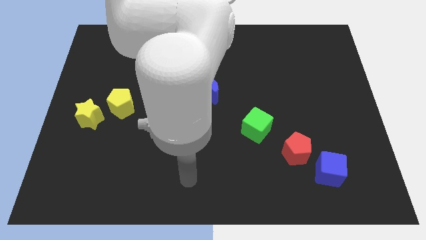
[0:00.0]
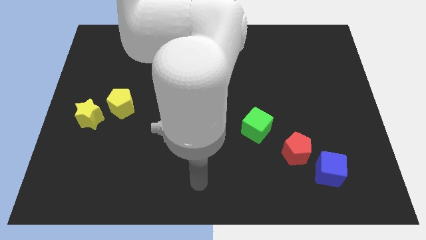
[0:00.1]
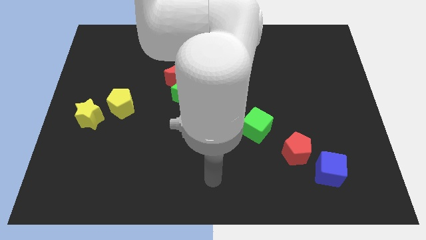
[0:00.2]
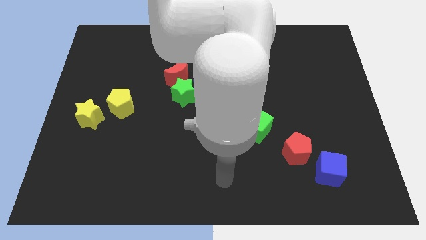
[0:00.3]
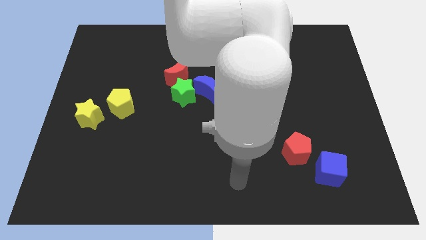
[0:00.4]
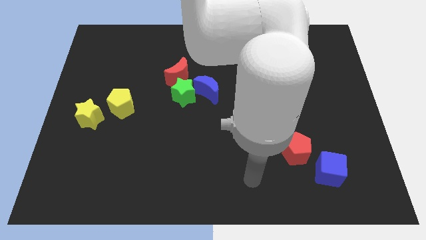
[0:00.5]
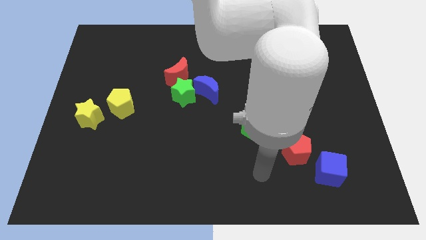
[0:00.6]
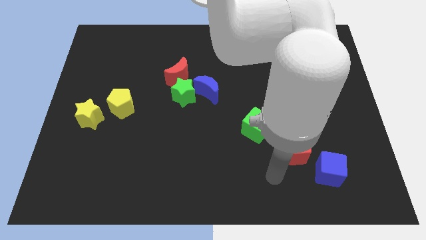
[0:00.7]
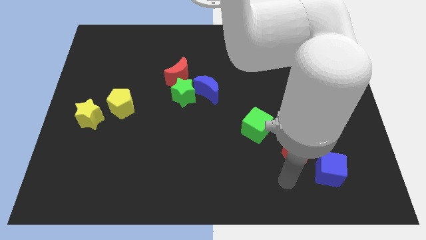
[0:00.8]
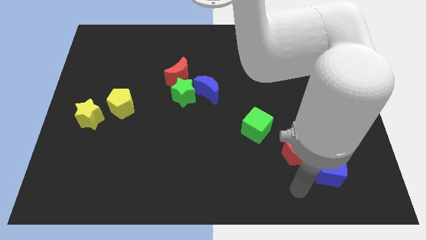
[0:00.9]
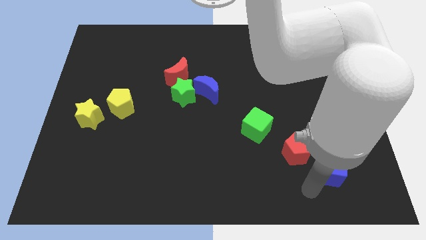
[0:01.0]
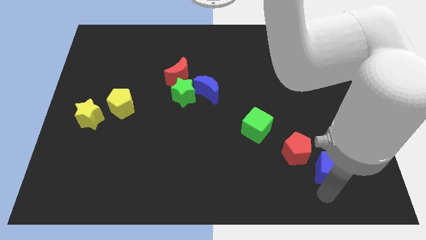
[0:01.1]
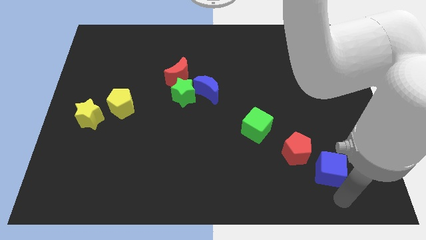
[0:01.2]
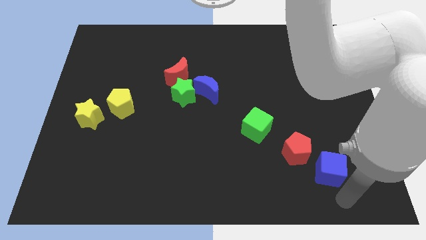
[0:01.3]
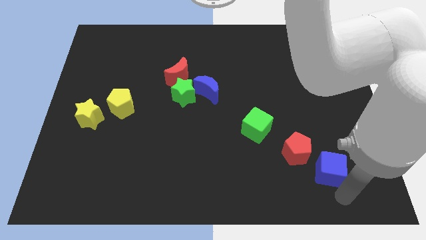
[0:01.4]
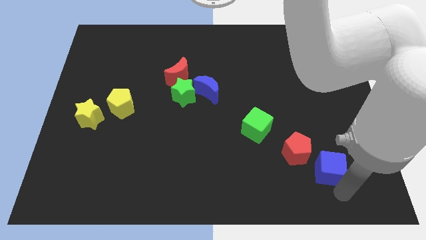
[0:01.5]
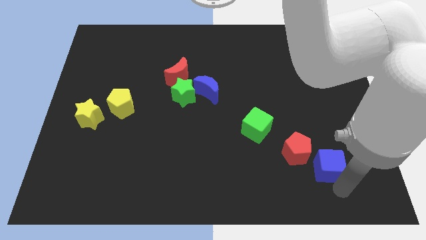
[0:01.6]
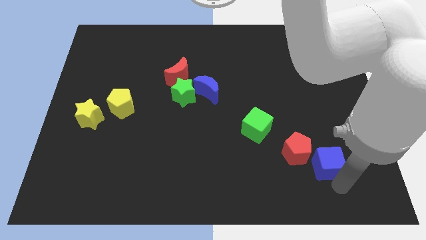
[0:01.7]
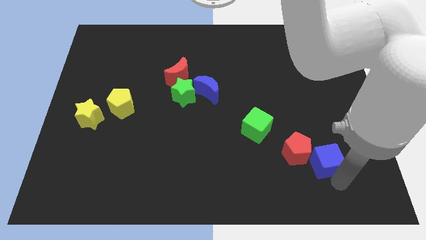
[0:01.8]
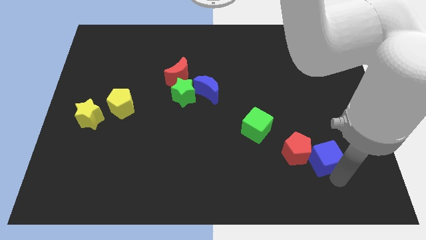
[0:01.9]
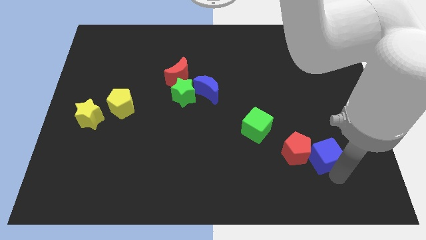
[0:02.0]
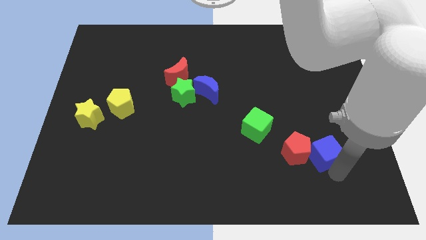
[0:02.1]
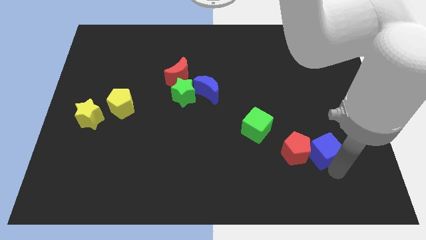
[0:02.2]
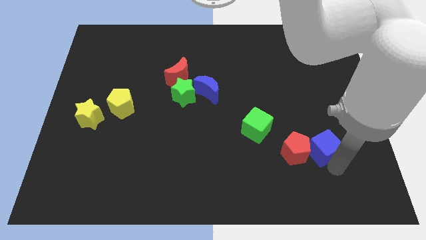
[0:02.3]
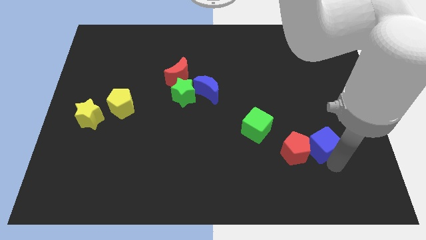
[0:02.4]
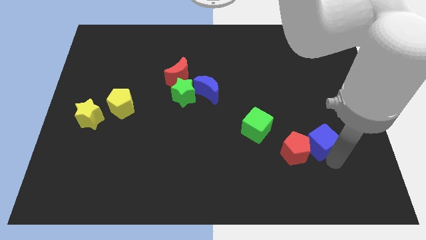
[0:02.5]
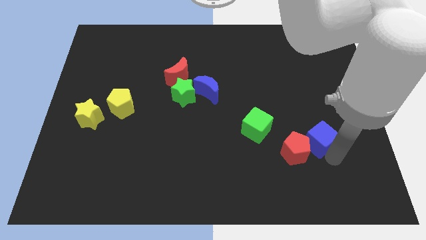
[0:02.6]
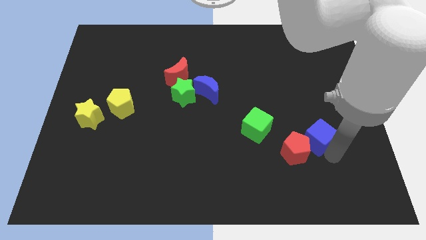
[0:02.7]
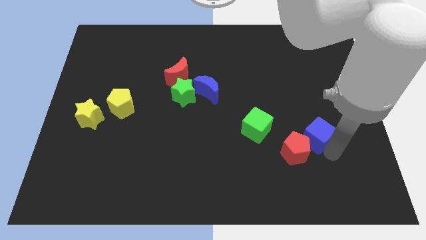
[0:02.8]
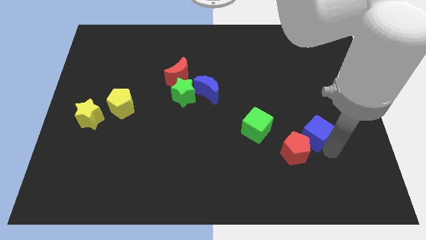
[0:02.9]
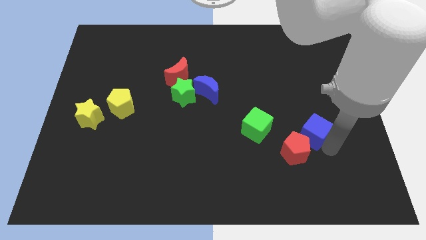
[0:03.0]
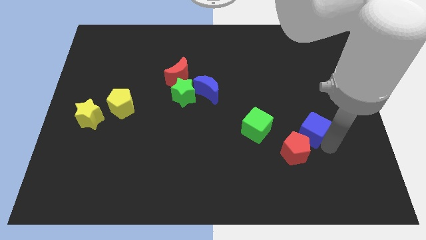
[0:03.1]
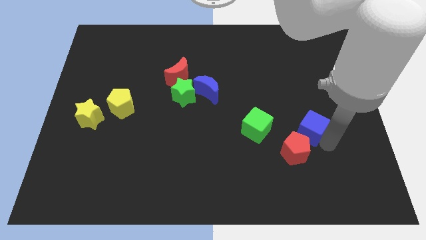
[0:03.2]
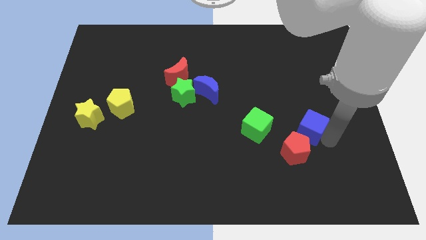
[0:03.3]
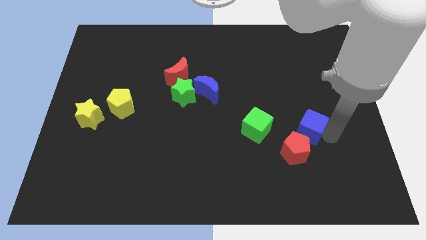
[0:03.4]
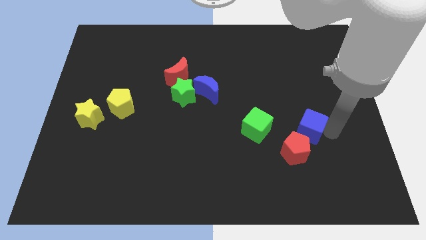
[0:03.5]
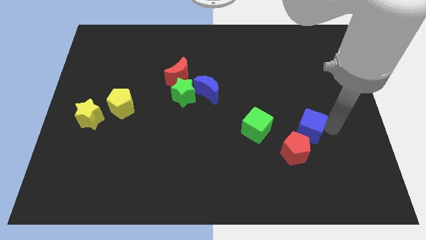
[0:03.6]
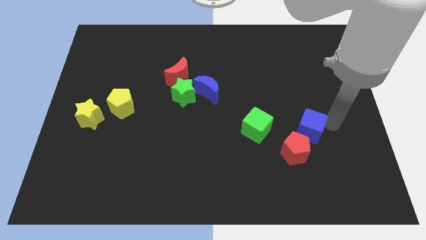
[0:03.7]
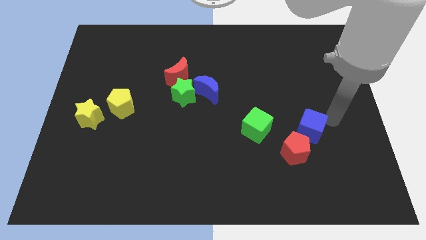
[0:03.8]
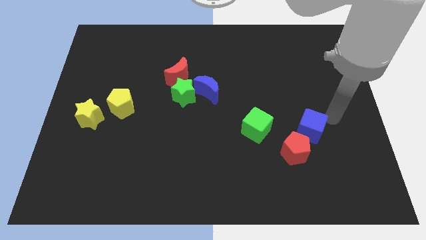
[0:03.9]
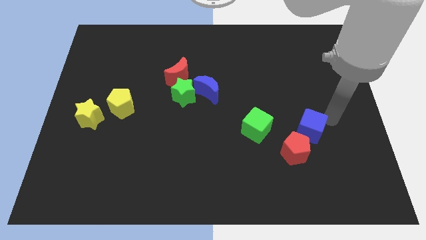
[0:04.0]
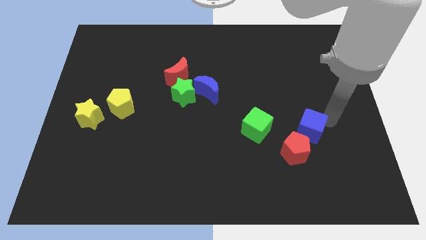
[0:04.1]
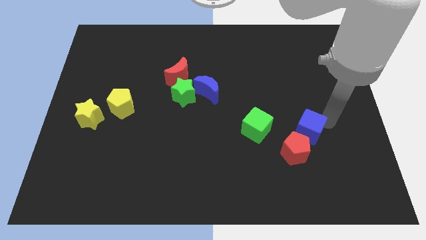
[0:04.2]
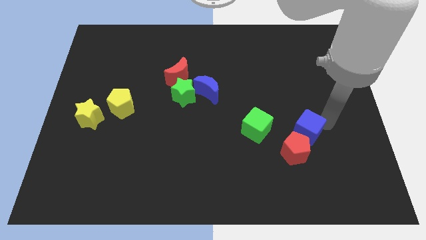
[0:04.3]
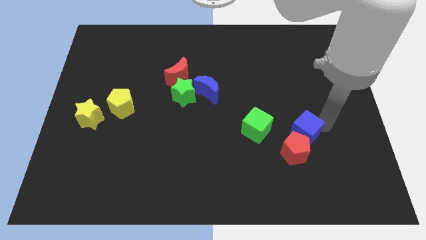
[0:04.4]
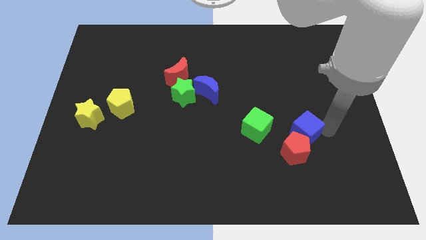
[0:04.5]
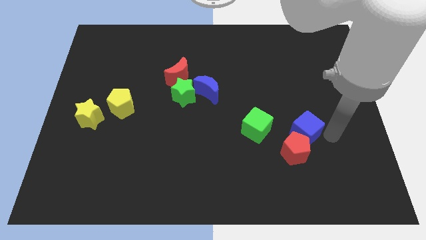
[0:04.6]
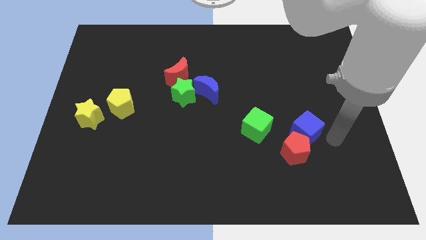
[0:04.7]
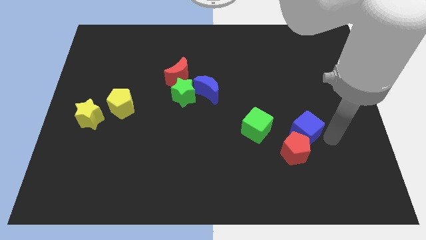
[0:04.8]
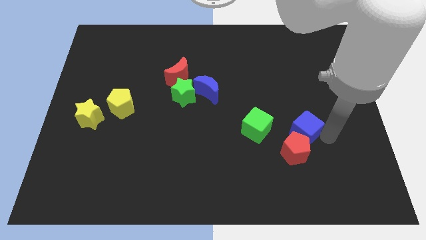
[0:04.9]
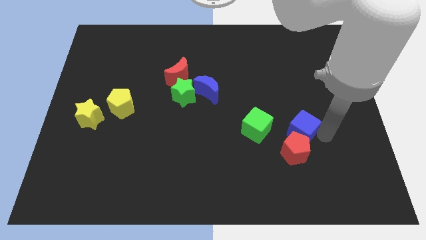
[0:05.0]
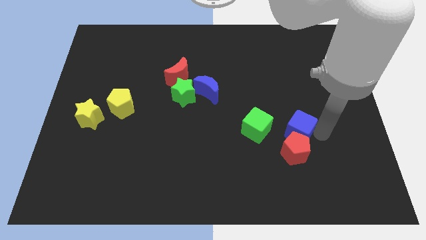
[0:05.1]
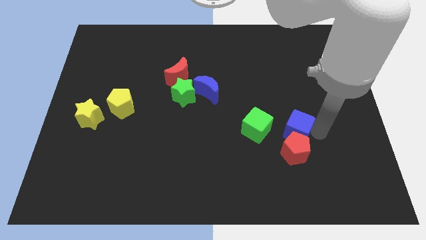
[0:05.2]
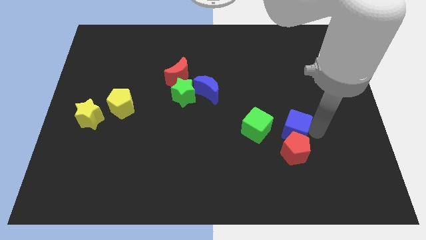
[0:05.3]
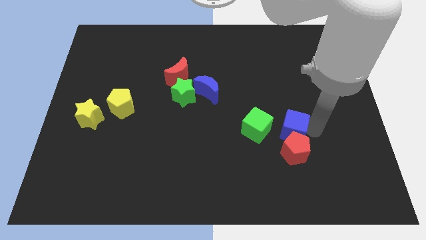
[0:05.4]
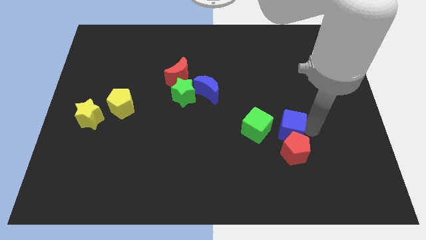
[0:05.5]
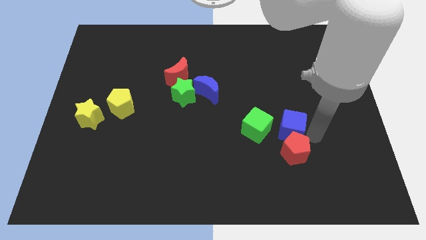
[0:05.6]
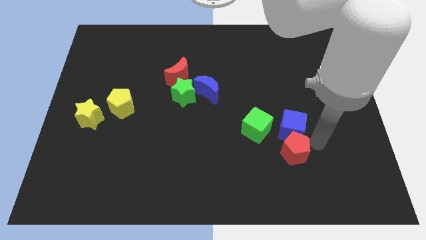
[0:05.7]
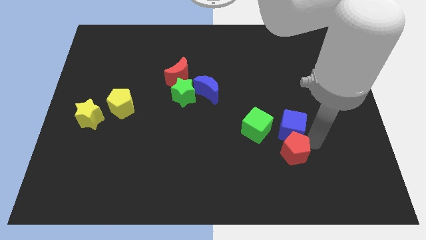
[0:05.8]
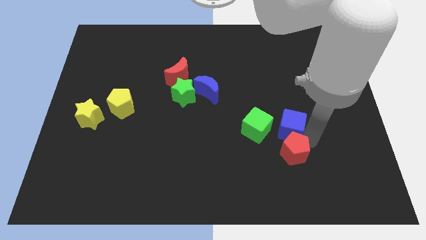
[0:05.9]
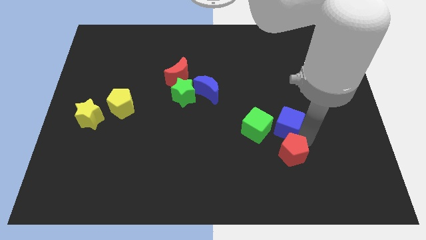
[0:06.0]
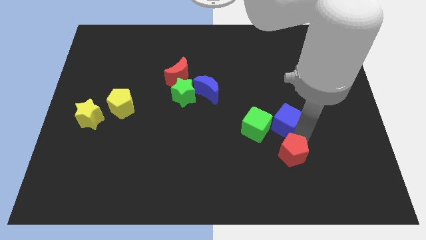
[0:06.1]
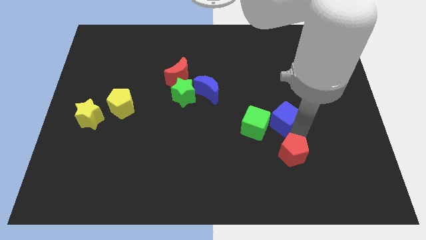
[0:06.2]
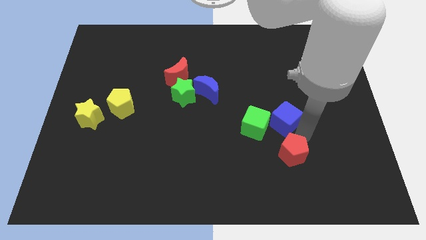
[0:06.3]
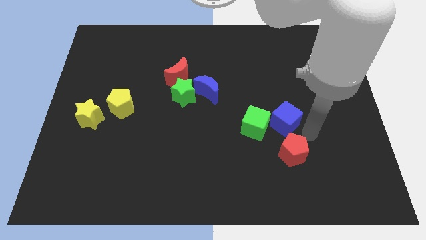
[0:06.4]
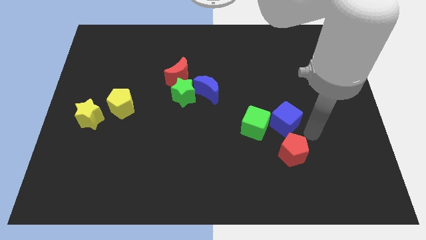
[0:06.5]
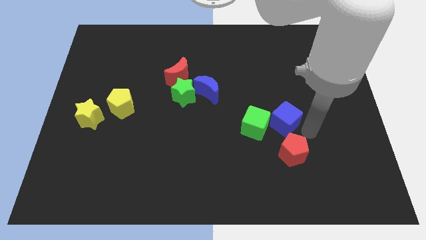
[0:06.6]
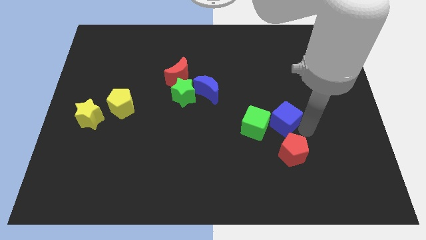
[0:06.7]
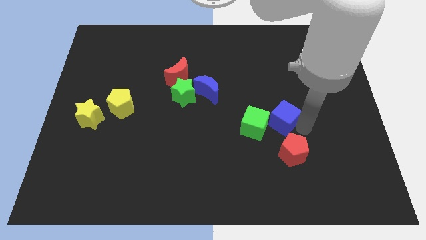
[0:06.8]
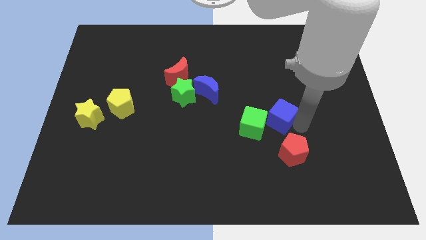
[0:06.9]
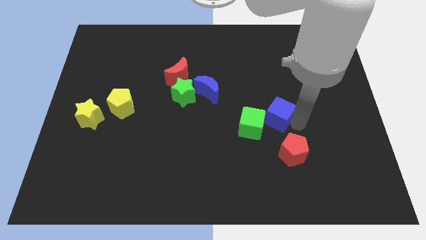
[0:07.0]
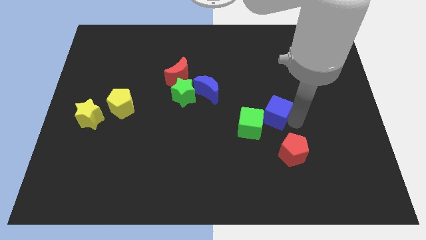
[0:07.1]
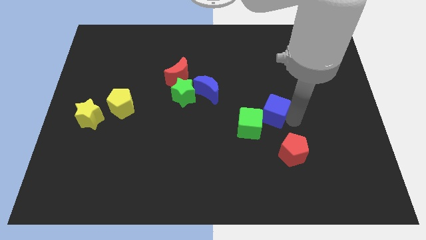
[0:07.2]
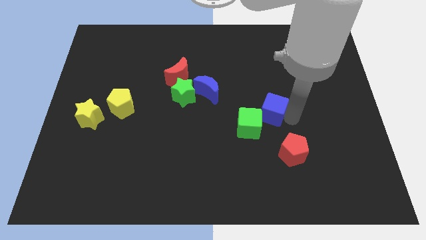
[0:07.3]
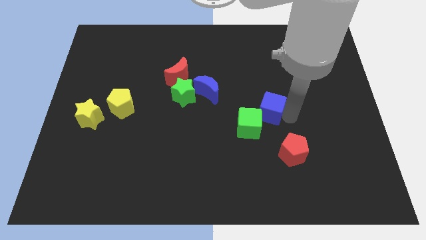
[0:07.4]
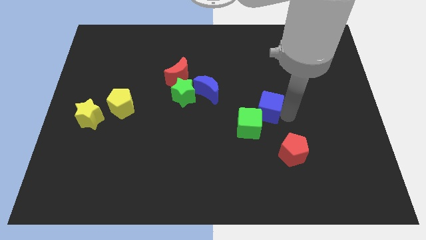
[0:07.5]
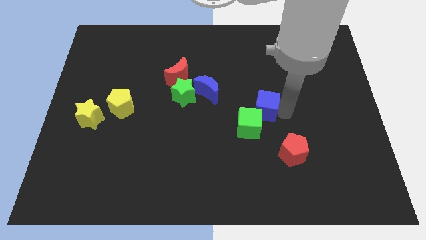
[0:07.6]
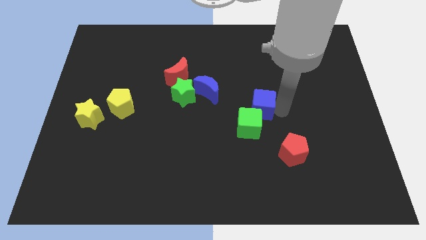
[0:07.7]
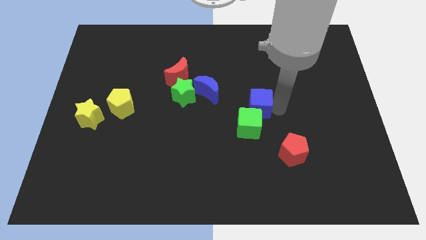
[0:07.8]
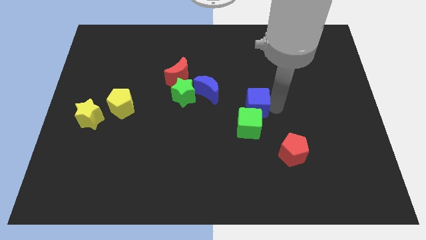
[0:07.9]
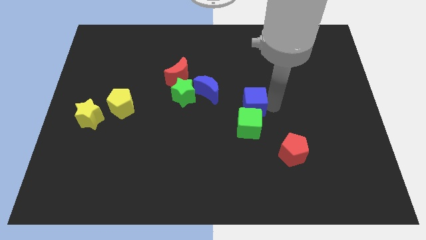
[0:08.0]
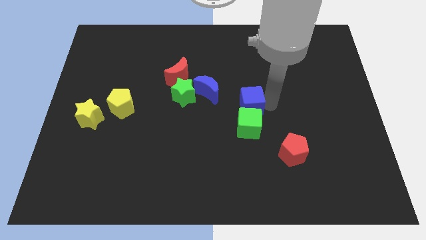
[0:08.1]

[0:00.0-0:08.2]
push the blue cube to the bottom right side of the blue moon

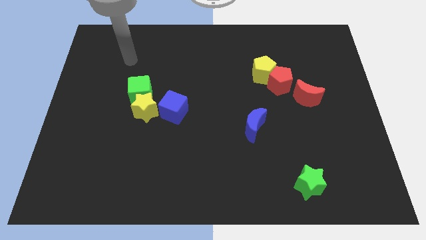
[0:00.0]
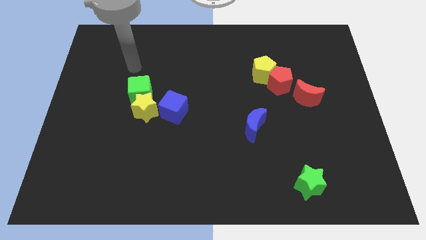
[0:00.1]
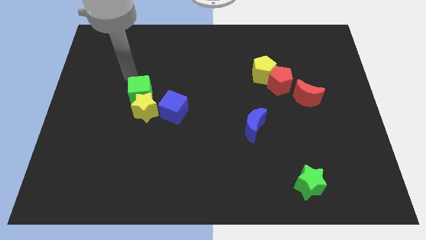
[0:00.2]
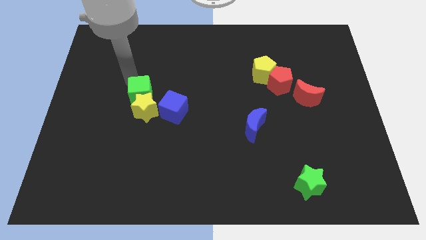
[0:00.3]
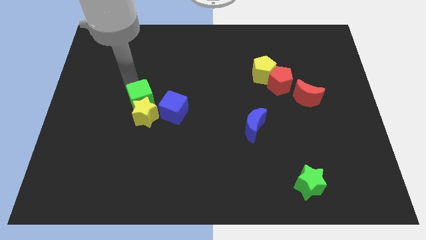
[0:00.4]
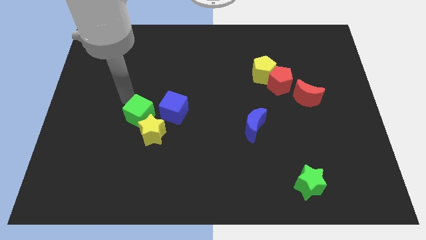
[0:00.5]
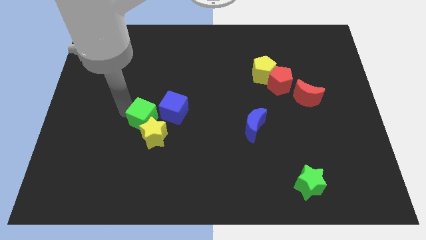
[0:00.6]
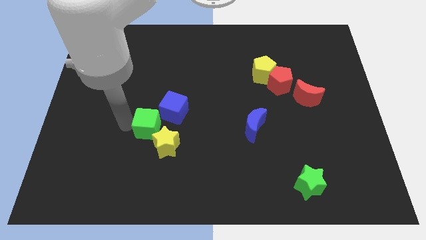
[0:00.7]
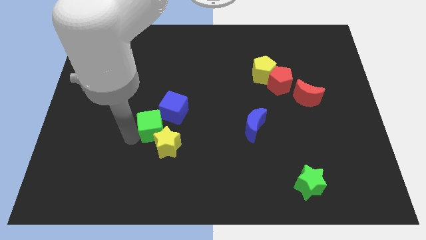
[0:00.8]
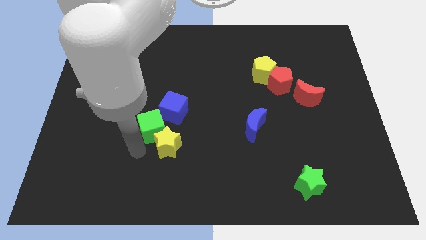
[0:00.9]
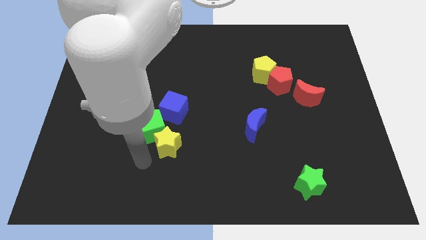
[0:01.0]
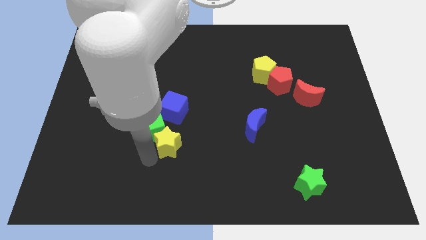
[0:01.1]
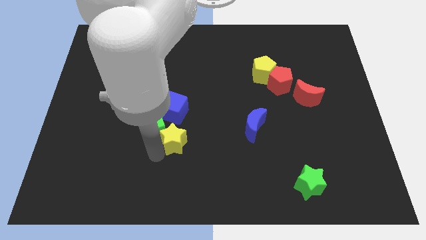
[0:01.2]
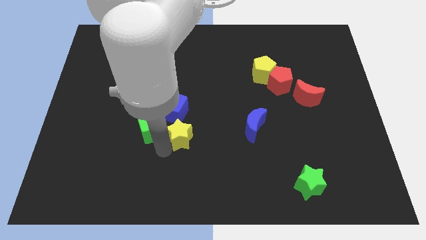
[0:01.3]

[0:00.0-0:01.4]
push the yellow star to the bottom right of the blue cube
